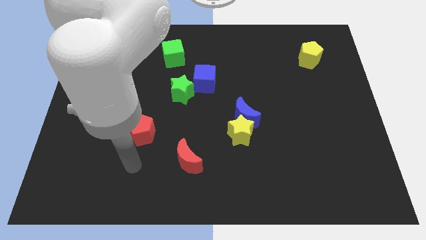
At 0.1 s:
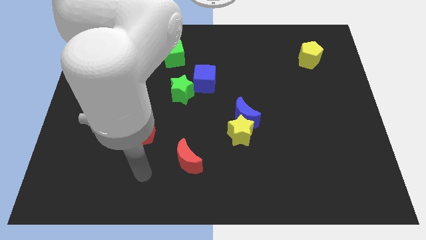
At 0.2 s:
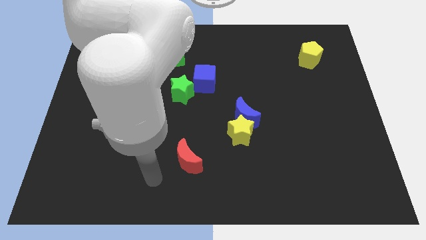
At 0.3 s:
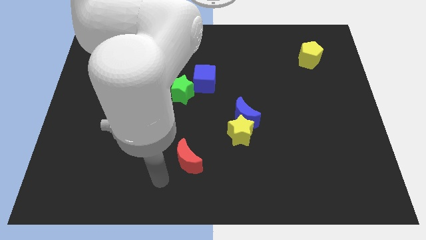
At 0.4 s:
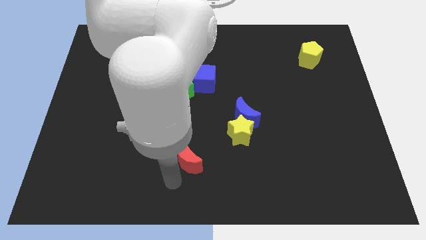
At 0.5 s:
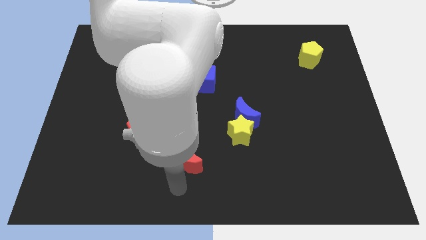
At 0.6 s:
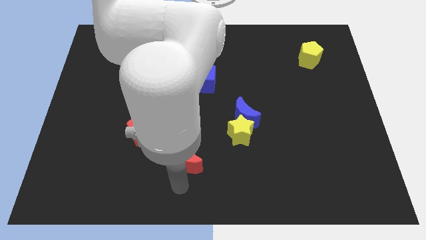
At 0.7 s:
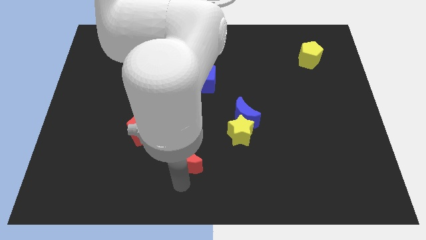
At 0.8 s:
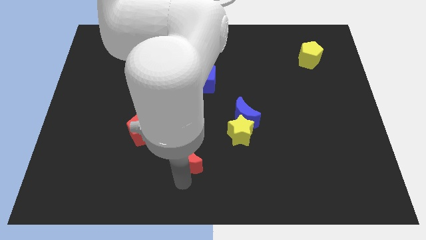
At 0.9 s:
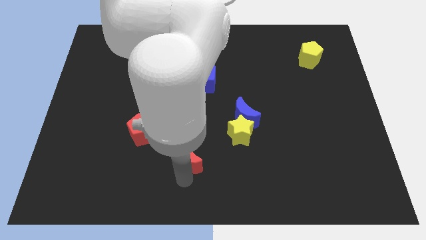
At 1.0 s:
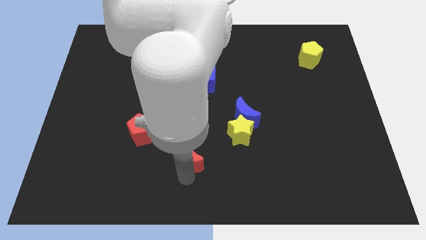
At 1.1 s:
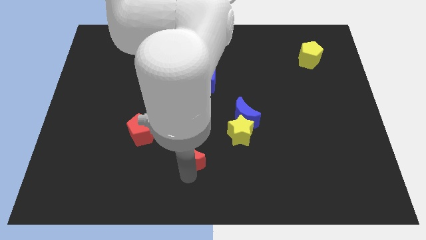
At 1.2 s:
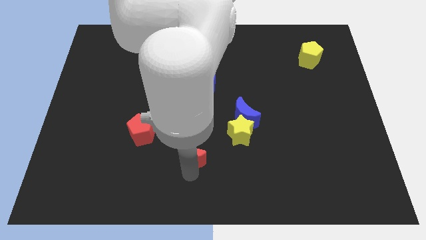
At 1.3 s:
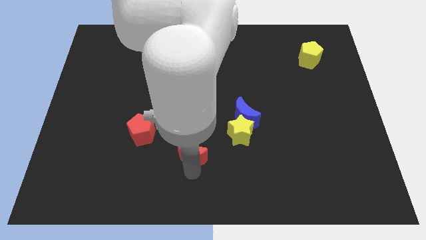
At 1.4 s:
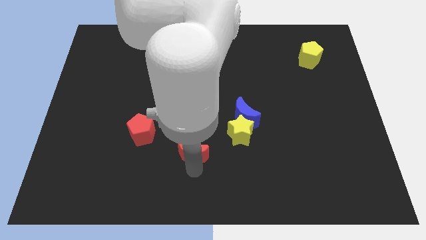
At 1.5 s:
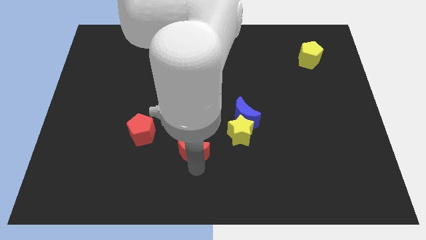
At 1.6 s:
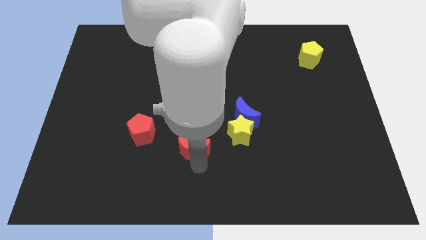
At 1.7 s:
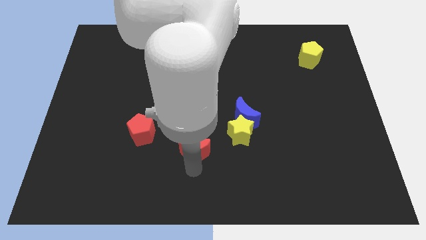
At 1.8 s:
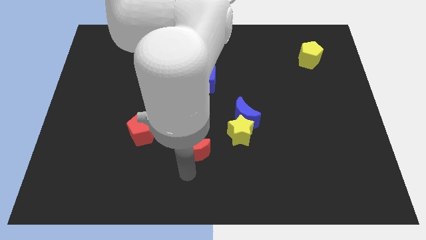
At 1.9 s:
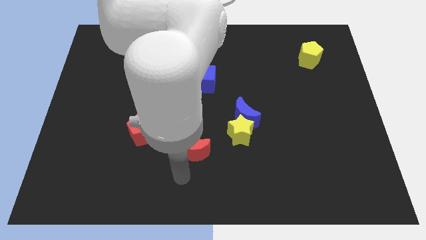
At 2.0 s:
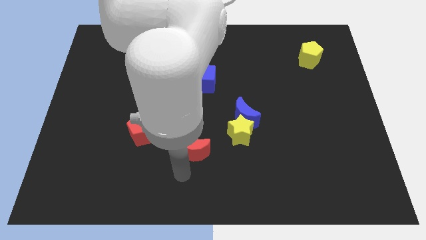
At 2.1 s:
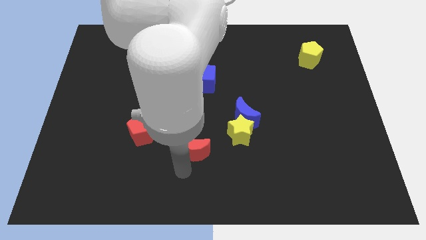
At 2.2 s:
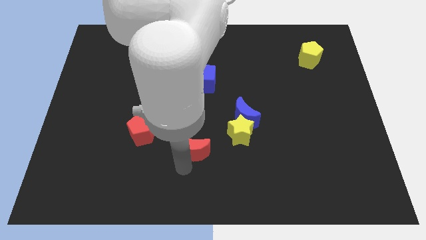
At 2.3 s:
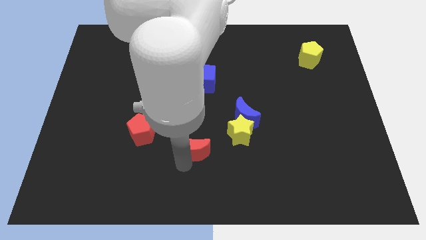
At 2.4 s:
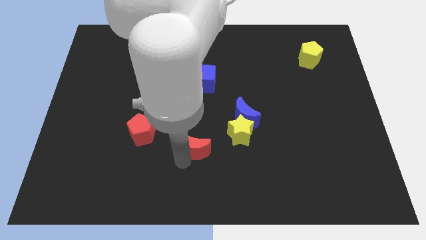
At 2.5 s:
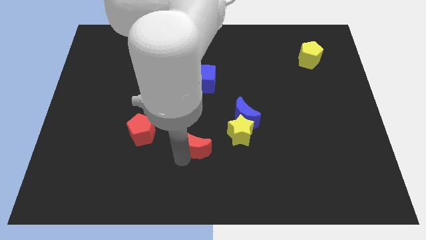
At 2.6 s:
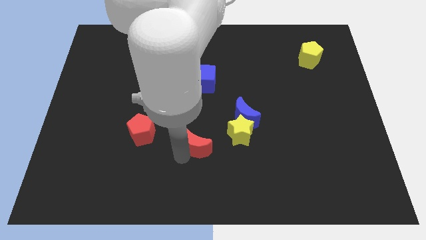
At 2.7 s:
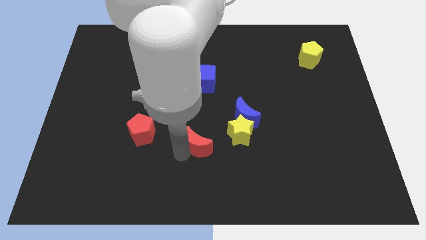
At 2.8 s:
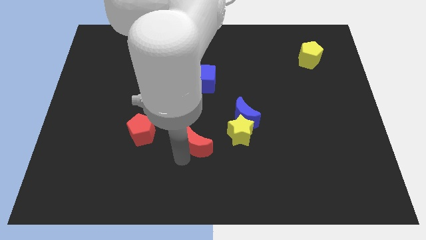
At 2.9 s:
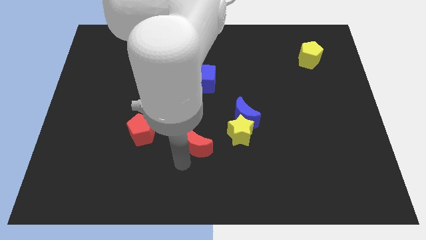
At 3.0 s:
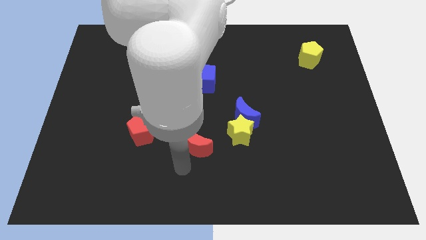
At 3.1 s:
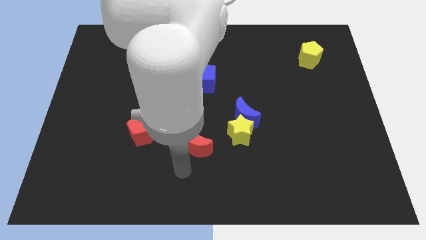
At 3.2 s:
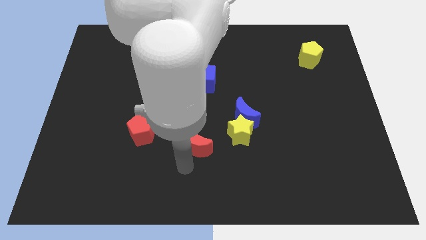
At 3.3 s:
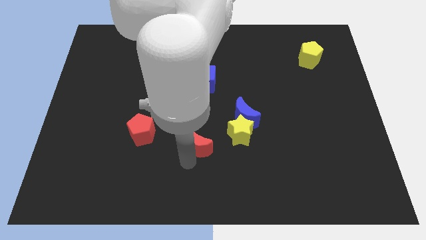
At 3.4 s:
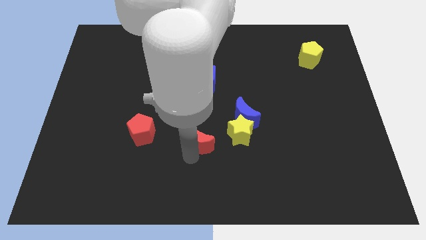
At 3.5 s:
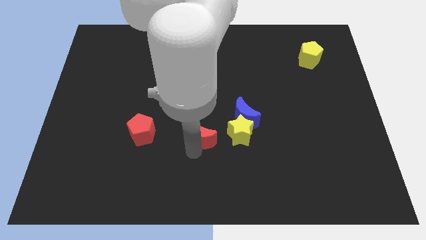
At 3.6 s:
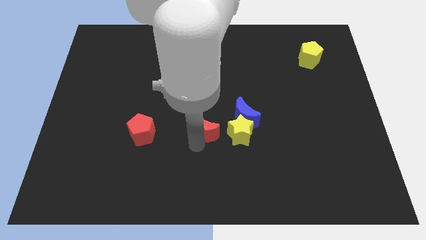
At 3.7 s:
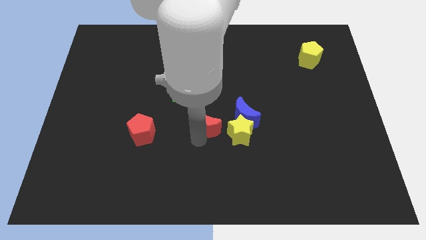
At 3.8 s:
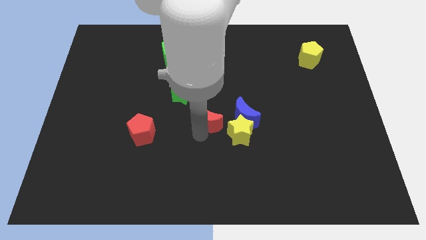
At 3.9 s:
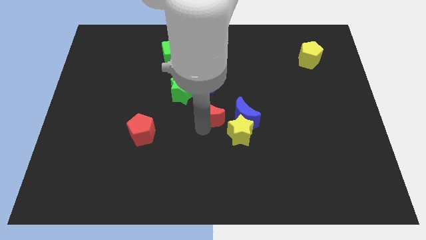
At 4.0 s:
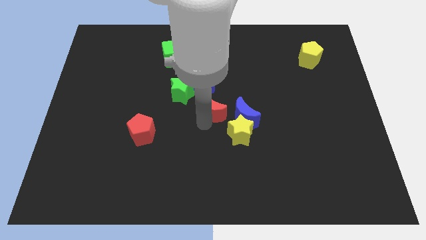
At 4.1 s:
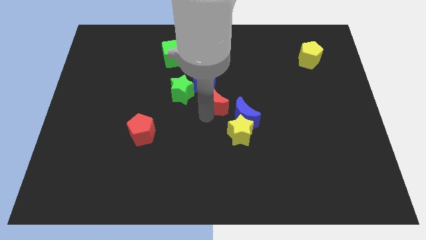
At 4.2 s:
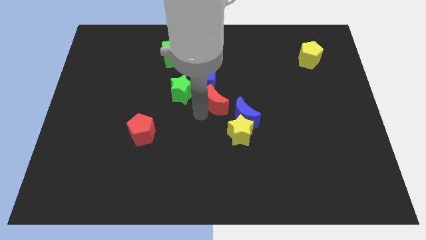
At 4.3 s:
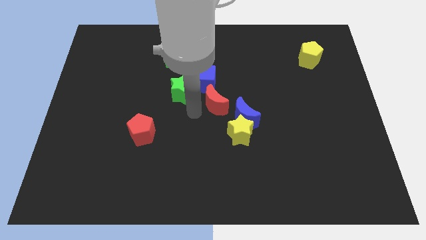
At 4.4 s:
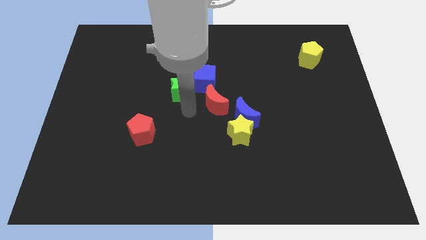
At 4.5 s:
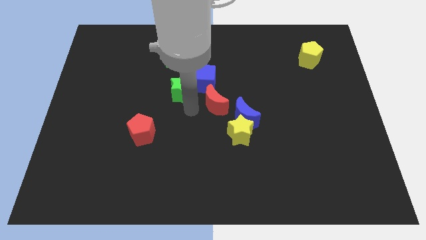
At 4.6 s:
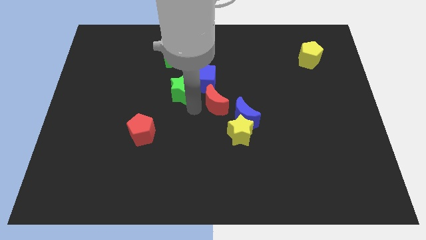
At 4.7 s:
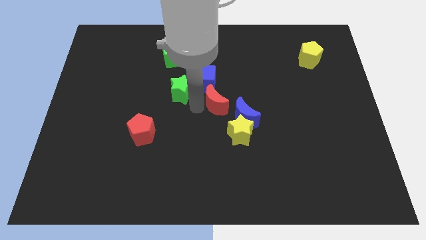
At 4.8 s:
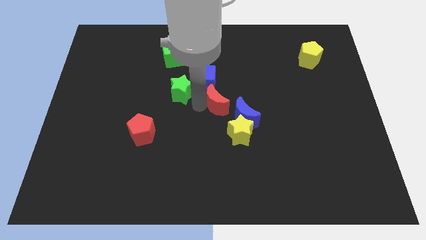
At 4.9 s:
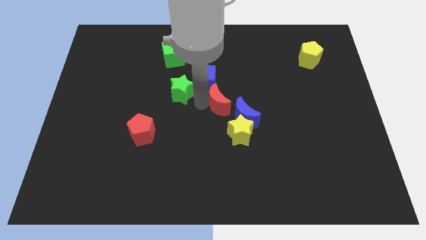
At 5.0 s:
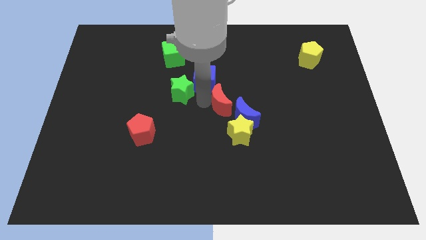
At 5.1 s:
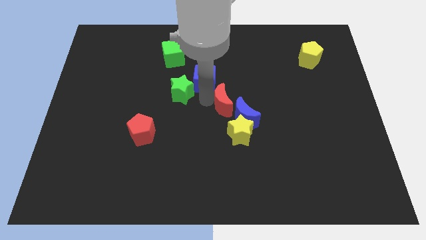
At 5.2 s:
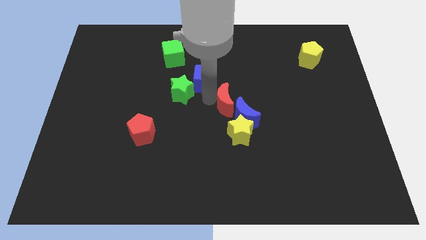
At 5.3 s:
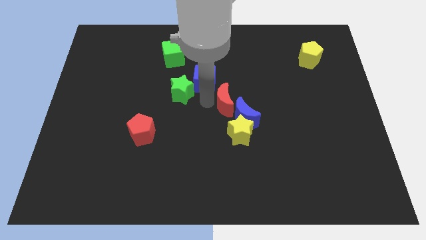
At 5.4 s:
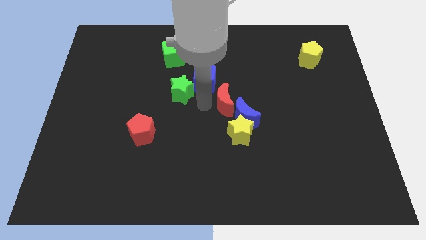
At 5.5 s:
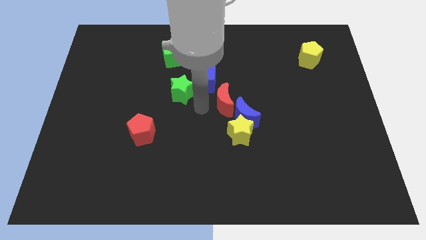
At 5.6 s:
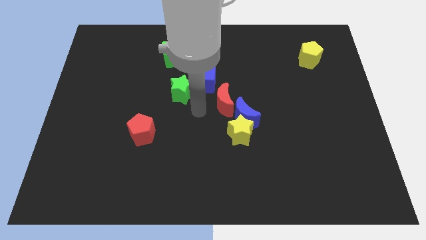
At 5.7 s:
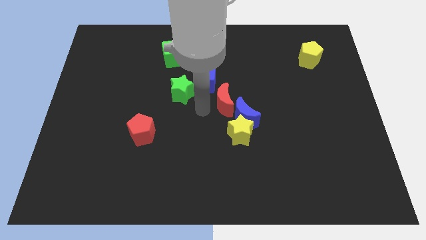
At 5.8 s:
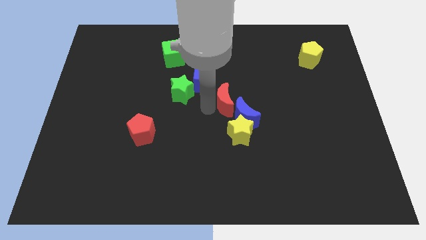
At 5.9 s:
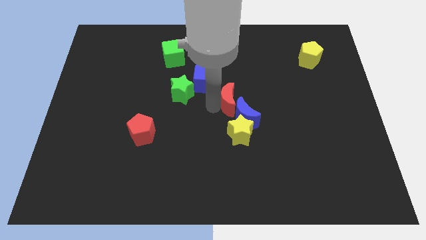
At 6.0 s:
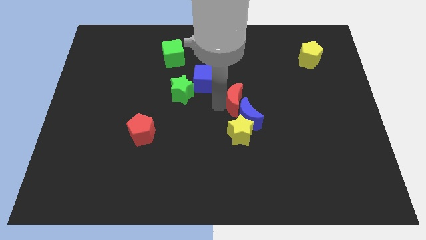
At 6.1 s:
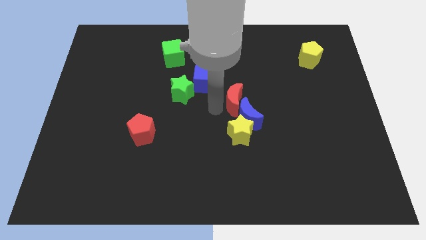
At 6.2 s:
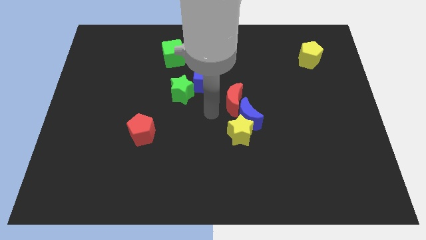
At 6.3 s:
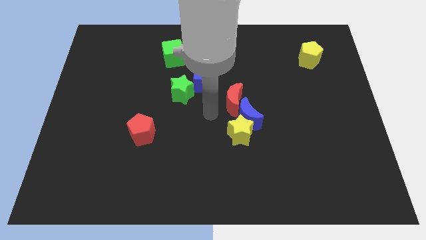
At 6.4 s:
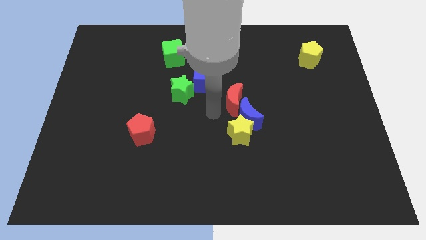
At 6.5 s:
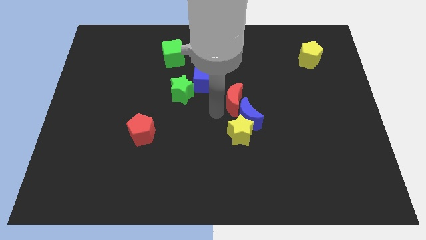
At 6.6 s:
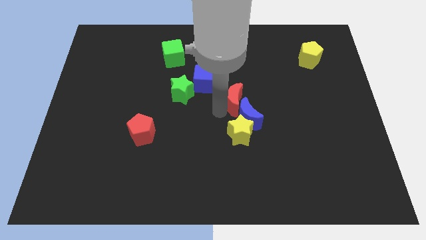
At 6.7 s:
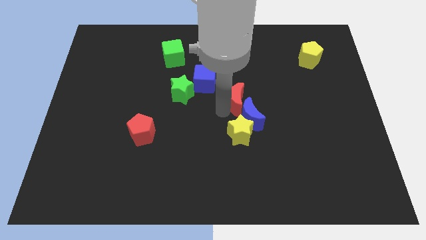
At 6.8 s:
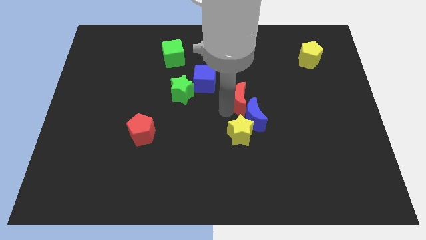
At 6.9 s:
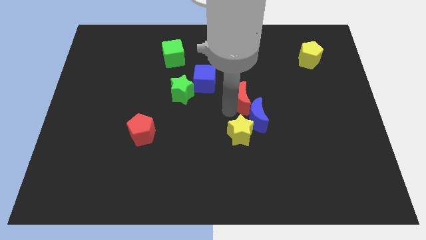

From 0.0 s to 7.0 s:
push the red moon up and then right

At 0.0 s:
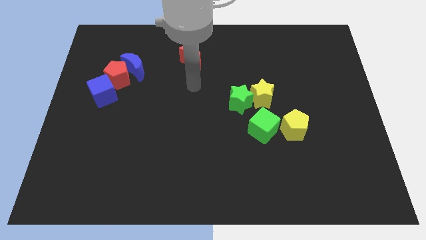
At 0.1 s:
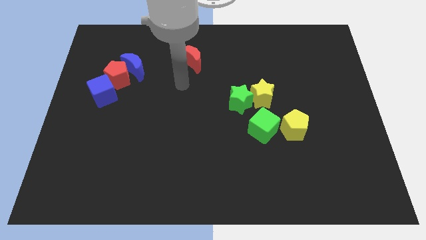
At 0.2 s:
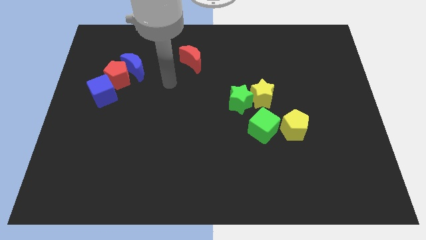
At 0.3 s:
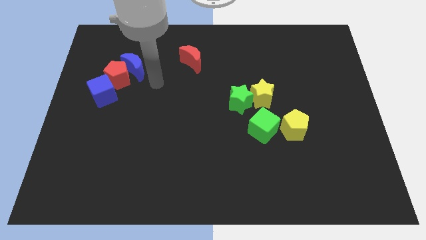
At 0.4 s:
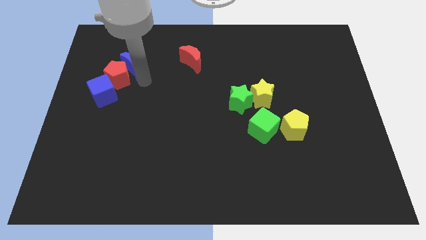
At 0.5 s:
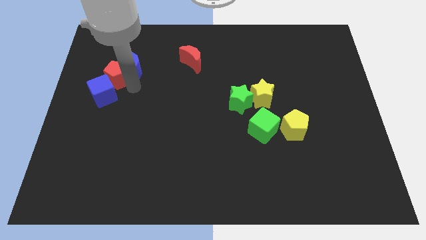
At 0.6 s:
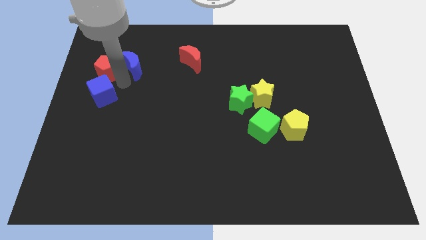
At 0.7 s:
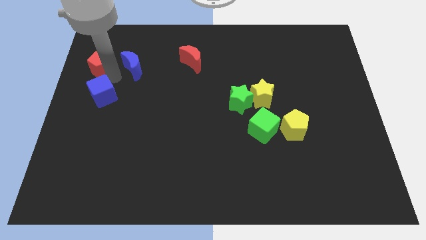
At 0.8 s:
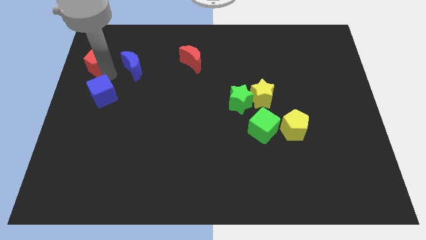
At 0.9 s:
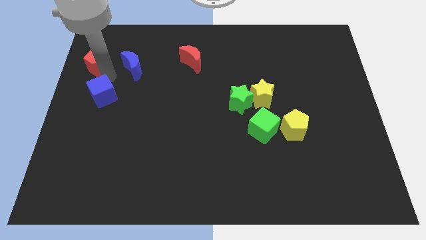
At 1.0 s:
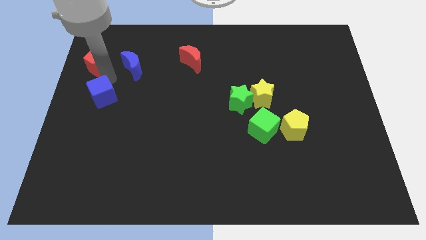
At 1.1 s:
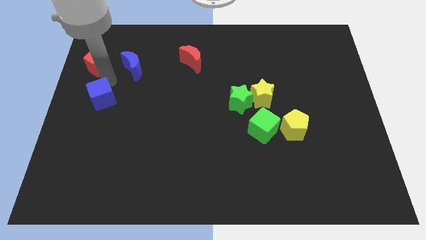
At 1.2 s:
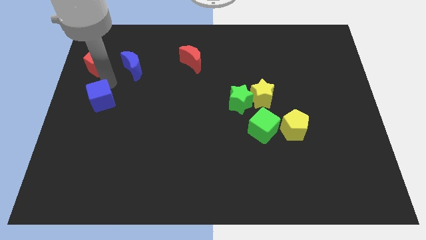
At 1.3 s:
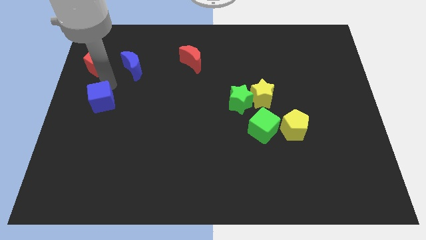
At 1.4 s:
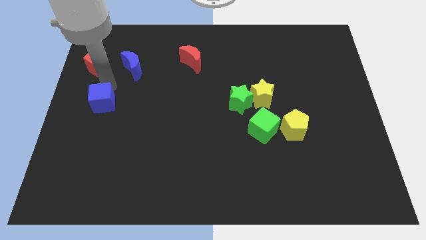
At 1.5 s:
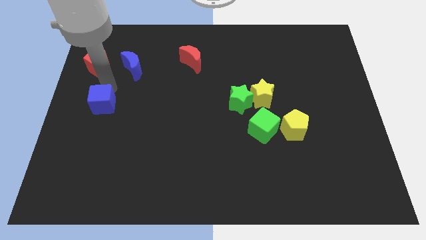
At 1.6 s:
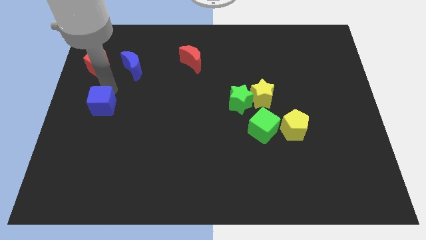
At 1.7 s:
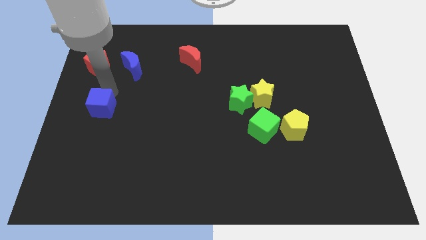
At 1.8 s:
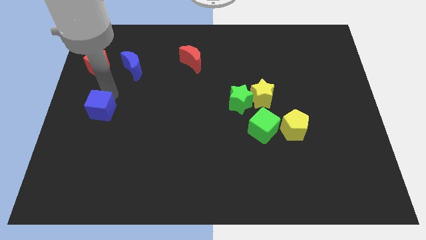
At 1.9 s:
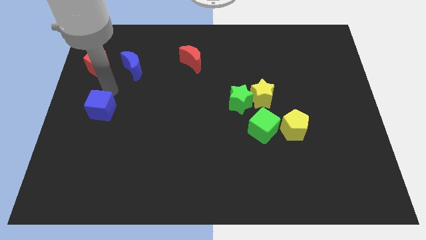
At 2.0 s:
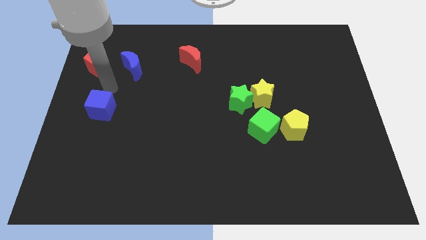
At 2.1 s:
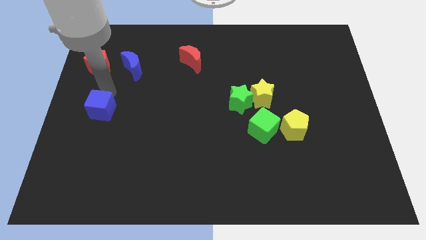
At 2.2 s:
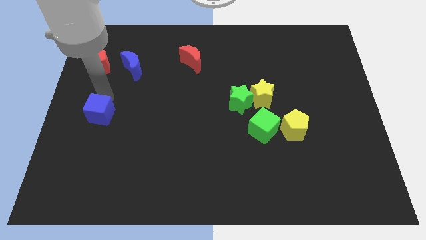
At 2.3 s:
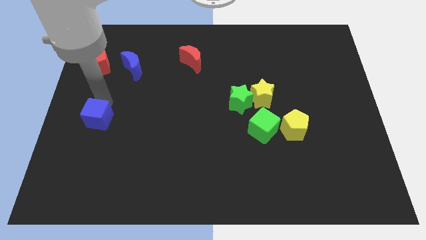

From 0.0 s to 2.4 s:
slide the blue cube downwards a little
